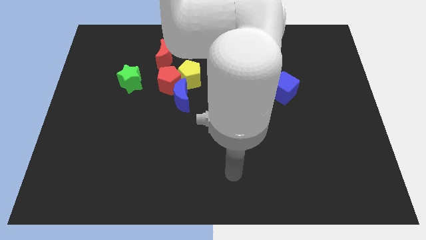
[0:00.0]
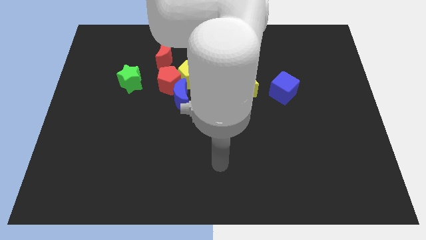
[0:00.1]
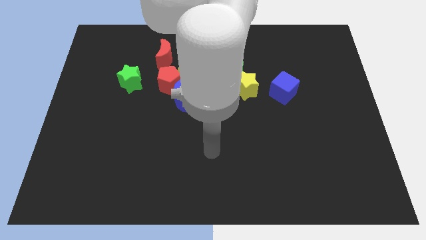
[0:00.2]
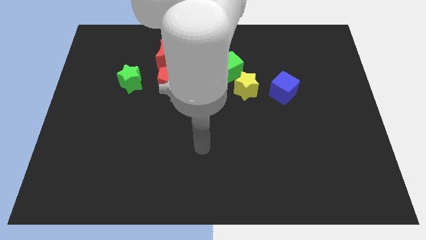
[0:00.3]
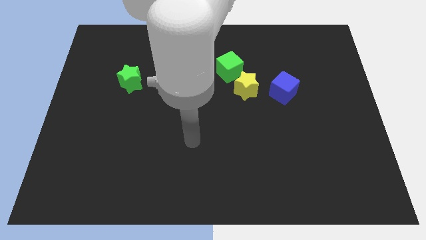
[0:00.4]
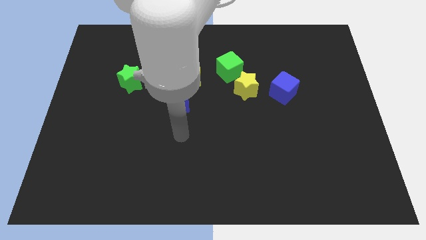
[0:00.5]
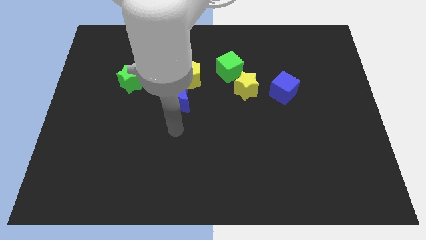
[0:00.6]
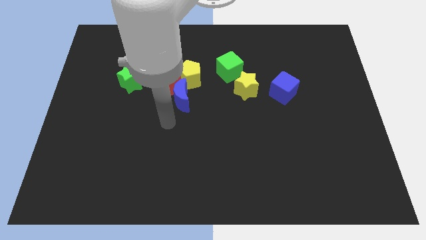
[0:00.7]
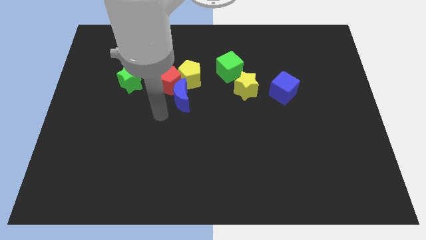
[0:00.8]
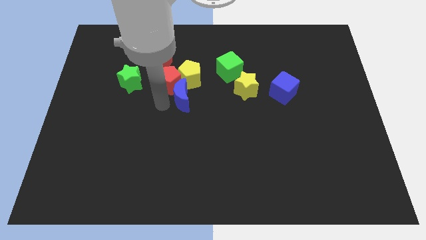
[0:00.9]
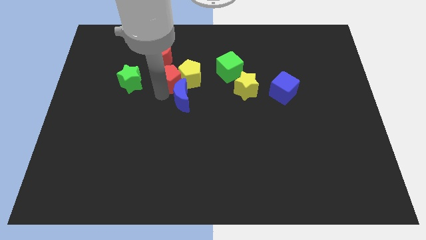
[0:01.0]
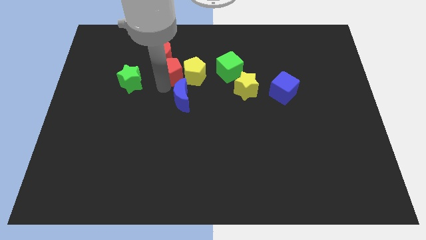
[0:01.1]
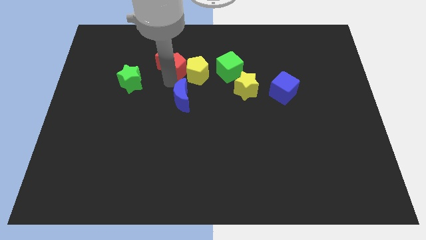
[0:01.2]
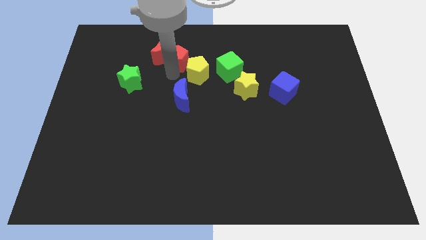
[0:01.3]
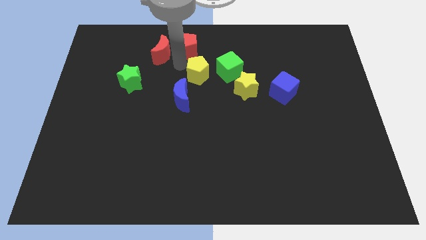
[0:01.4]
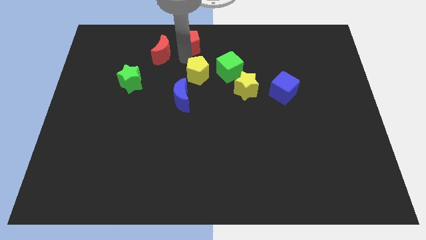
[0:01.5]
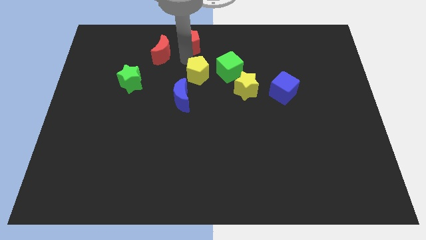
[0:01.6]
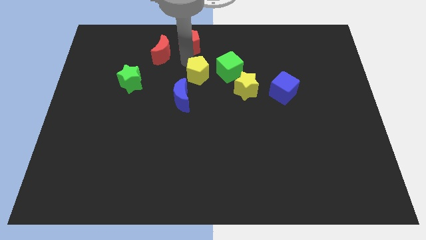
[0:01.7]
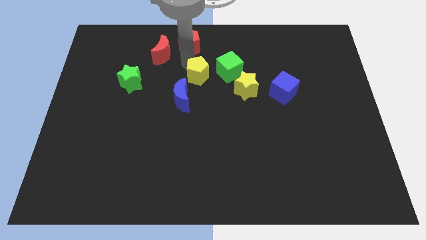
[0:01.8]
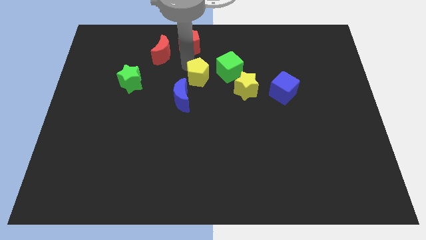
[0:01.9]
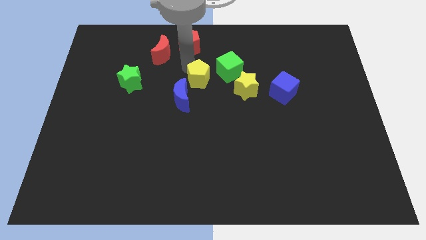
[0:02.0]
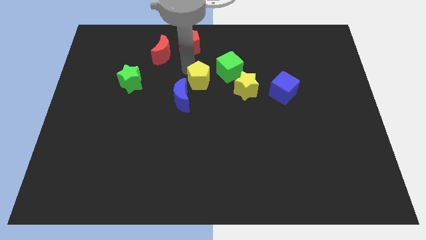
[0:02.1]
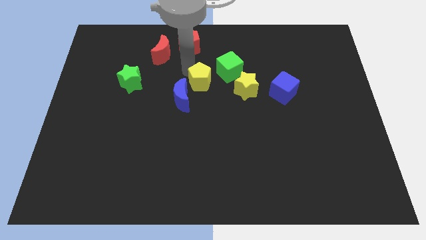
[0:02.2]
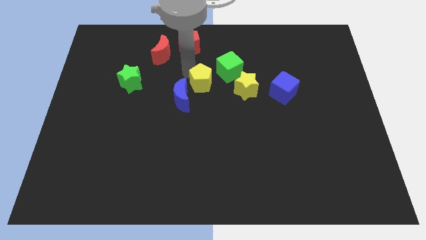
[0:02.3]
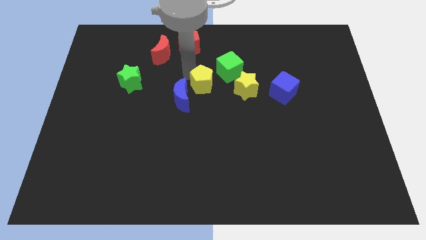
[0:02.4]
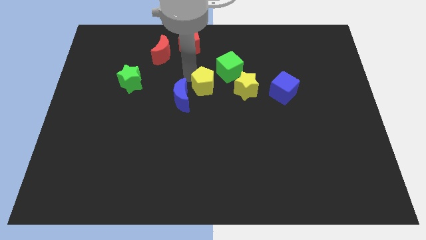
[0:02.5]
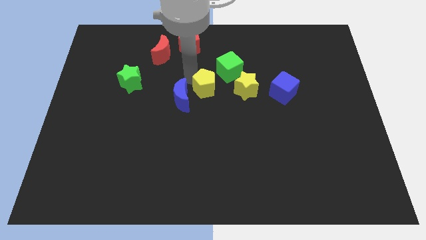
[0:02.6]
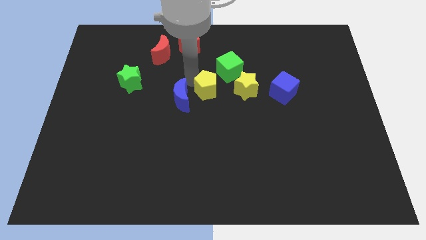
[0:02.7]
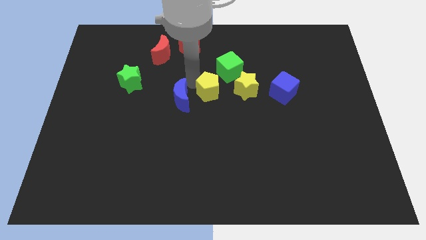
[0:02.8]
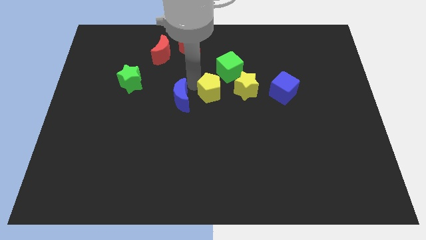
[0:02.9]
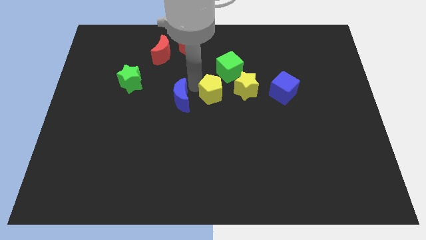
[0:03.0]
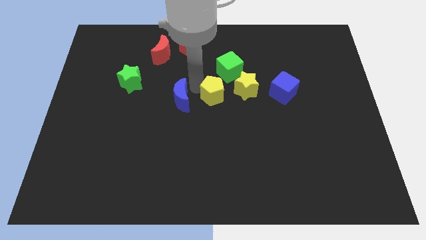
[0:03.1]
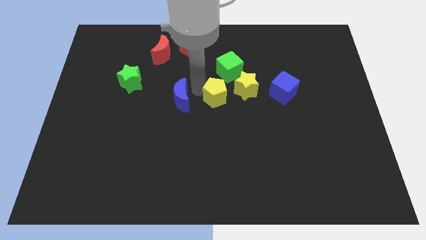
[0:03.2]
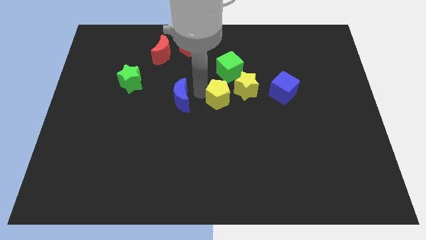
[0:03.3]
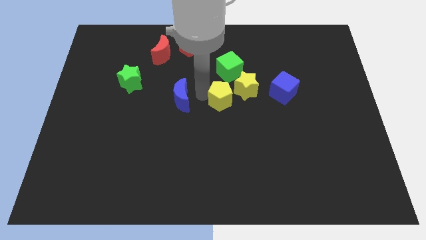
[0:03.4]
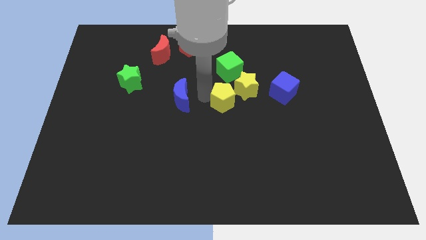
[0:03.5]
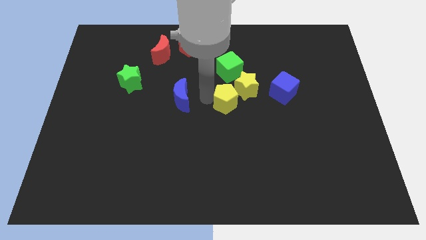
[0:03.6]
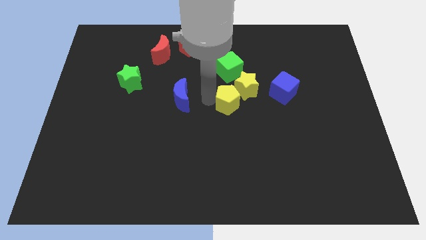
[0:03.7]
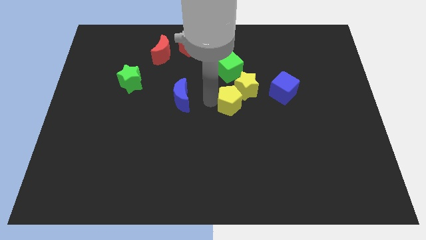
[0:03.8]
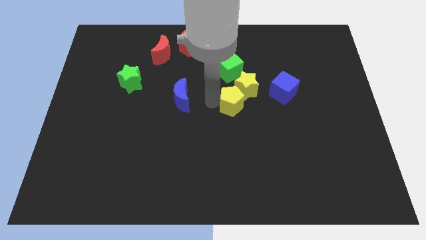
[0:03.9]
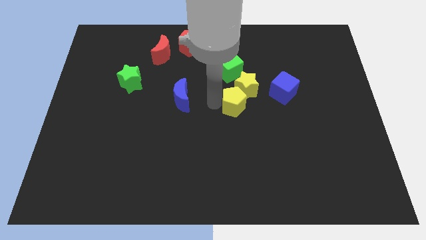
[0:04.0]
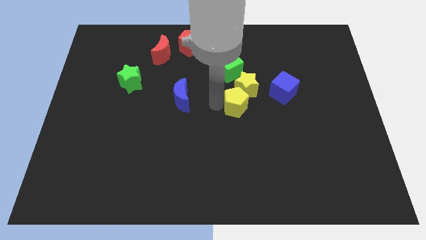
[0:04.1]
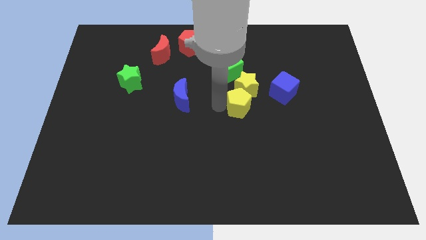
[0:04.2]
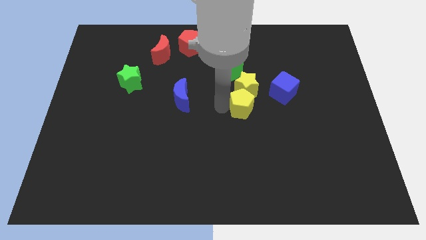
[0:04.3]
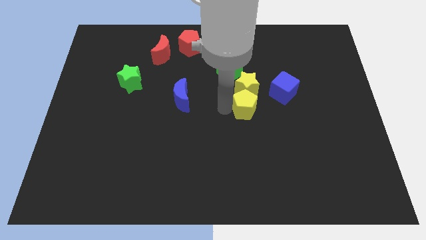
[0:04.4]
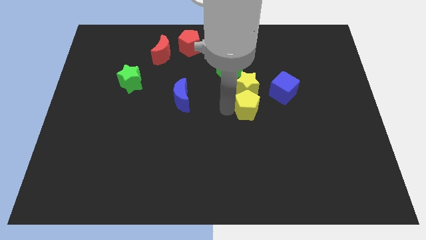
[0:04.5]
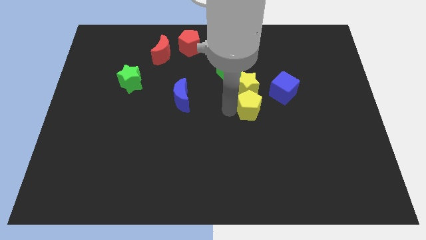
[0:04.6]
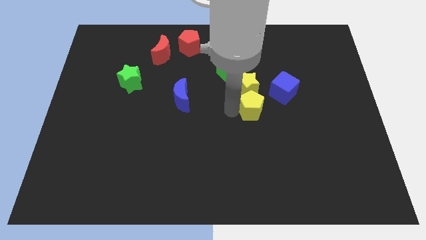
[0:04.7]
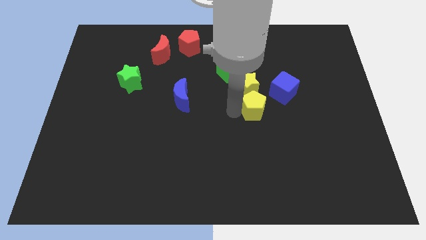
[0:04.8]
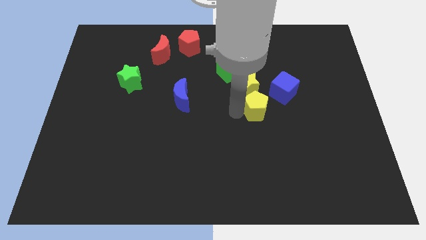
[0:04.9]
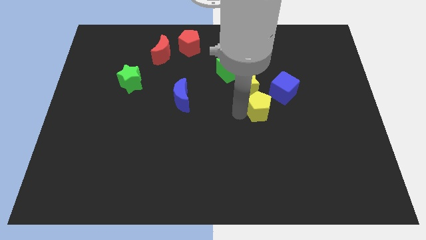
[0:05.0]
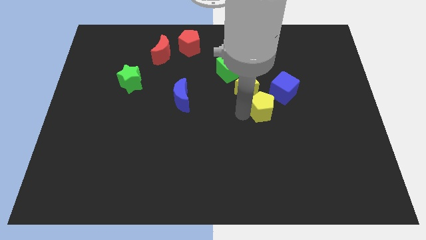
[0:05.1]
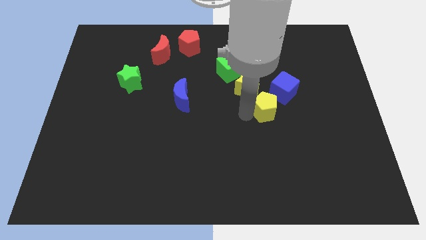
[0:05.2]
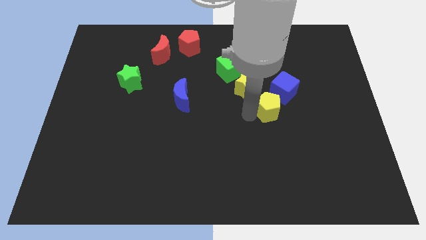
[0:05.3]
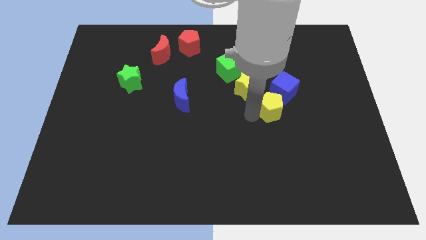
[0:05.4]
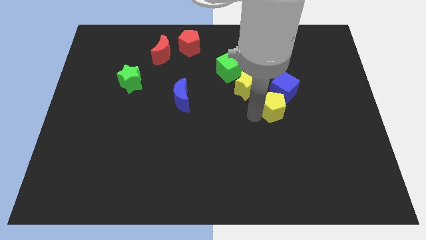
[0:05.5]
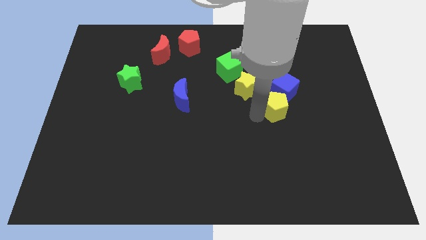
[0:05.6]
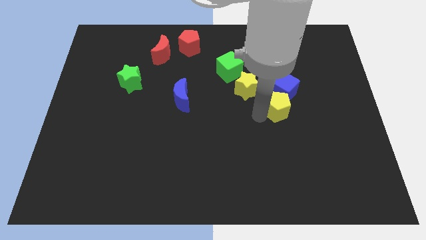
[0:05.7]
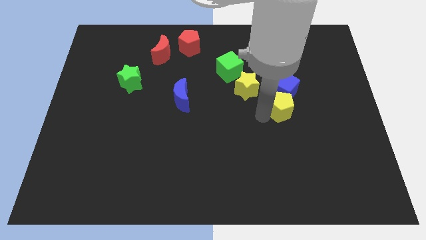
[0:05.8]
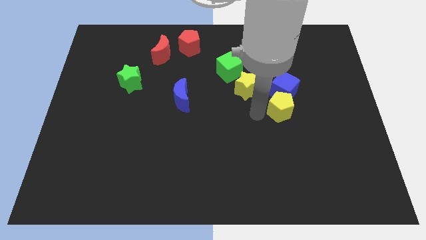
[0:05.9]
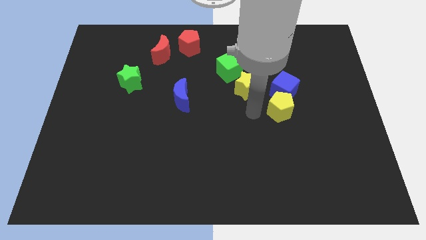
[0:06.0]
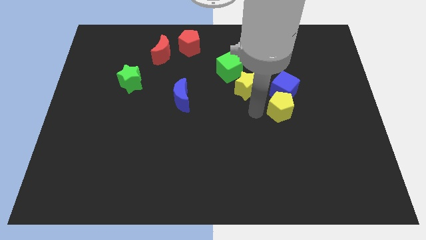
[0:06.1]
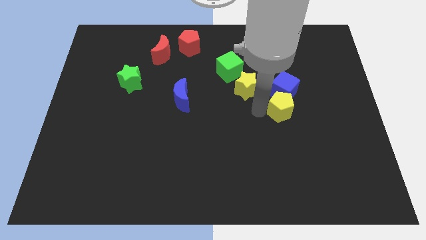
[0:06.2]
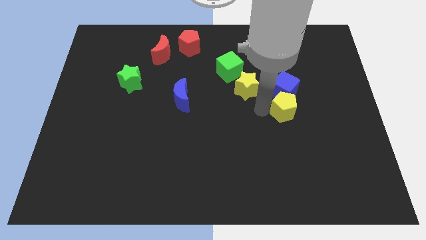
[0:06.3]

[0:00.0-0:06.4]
move the yellow pentagon diagonally down and to the right of the blue cube
